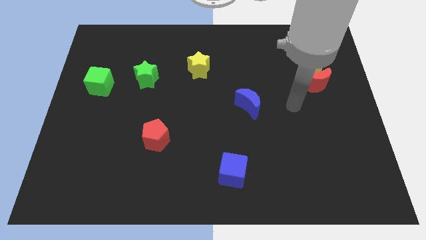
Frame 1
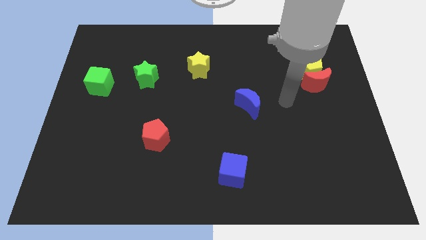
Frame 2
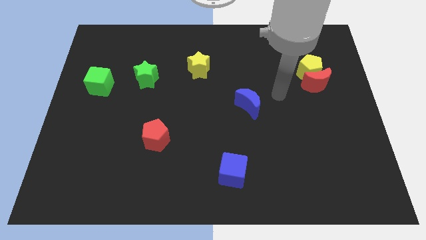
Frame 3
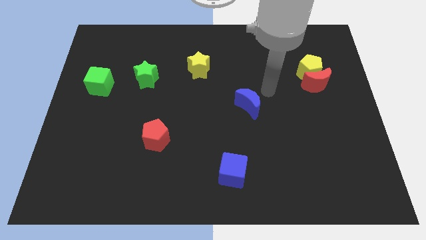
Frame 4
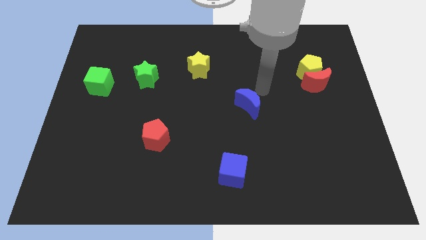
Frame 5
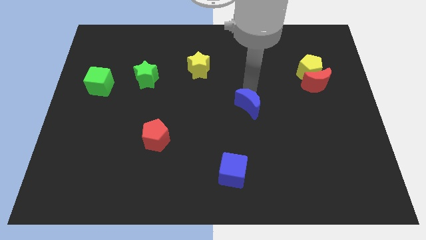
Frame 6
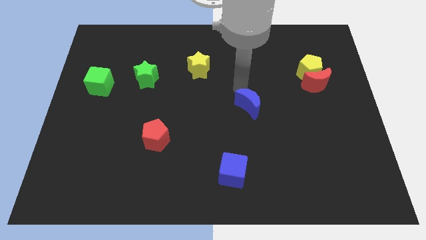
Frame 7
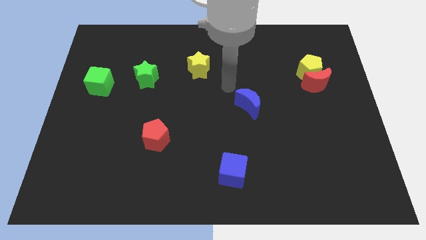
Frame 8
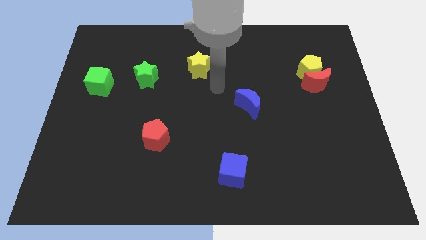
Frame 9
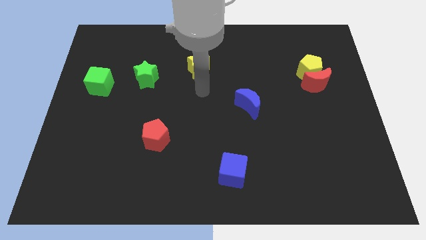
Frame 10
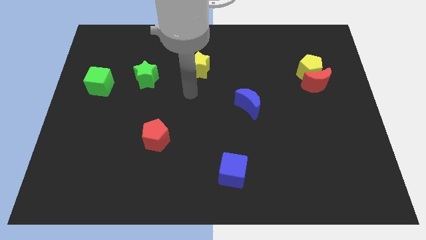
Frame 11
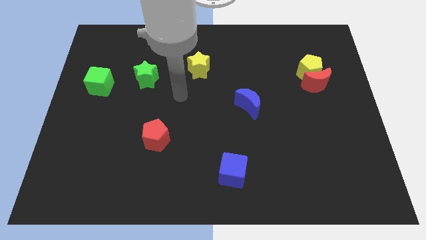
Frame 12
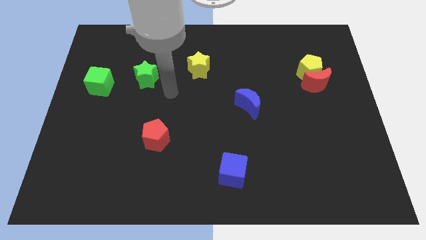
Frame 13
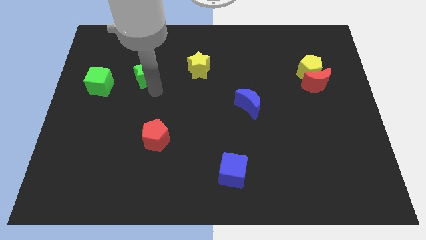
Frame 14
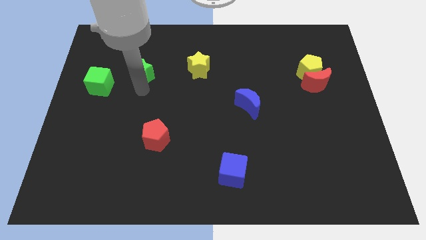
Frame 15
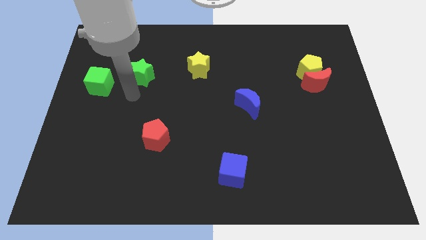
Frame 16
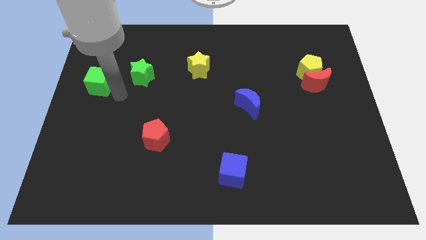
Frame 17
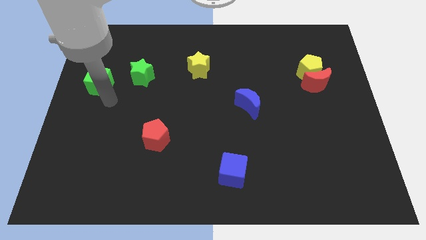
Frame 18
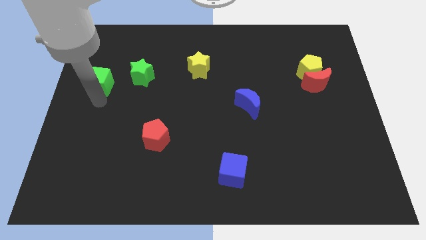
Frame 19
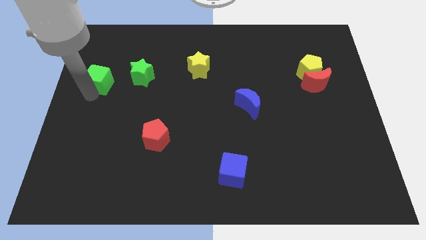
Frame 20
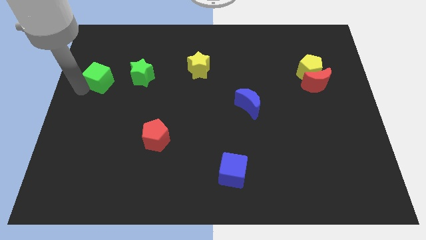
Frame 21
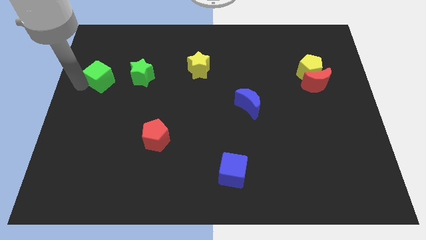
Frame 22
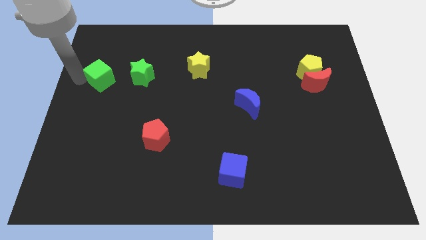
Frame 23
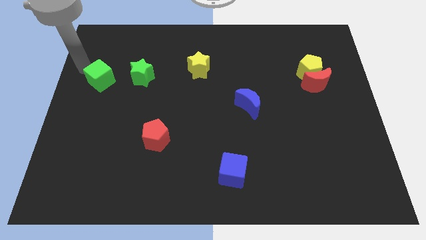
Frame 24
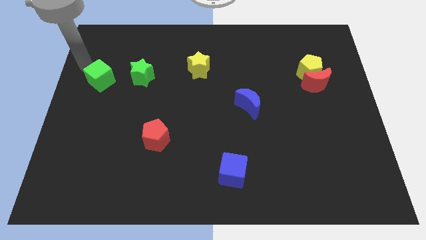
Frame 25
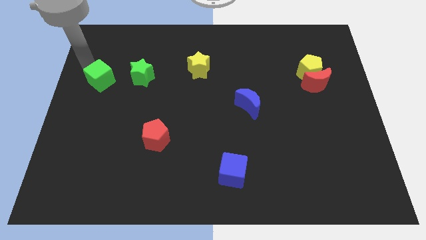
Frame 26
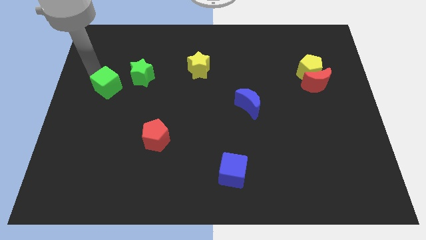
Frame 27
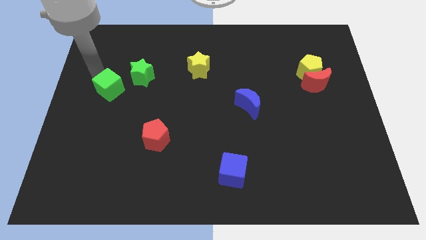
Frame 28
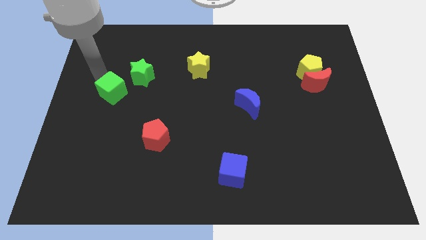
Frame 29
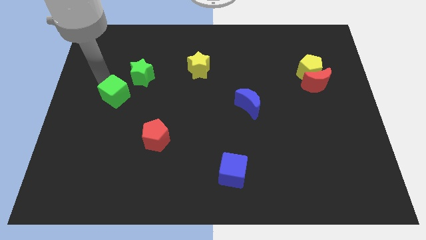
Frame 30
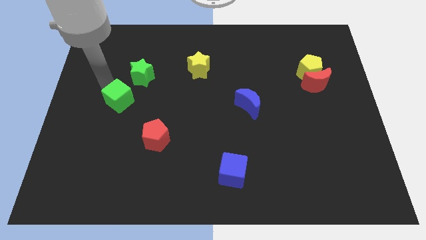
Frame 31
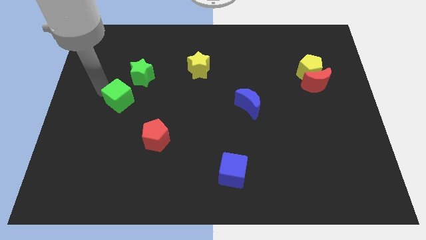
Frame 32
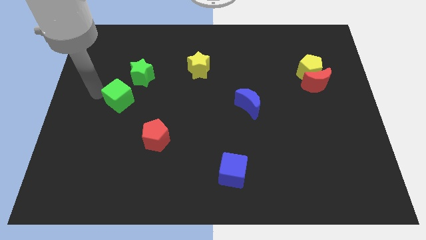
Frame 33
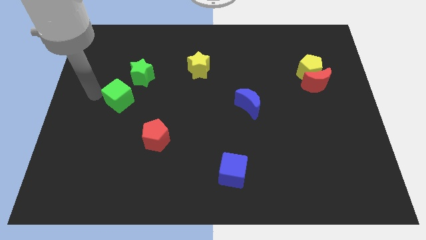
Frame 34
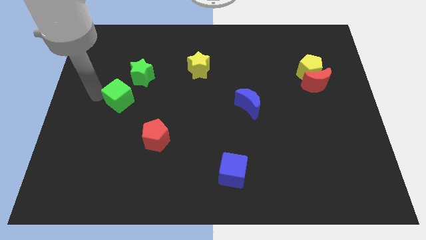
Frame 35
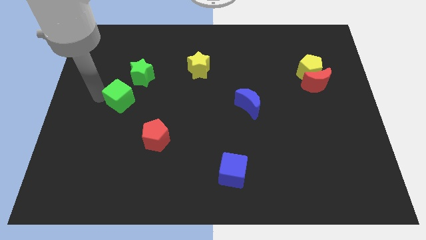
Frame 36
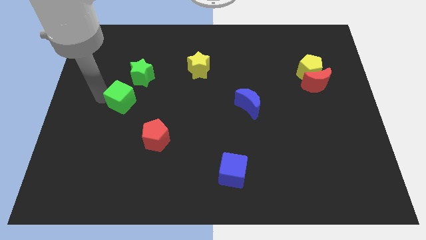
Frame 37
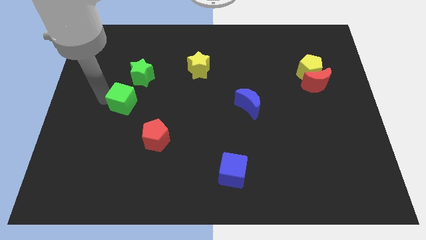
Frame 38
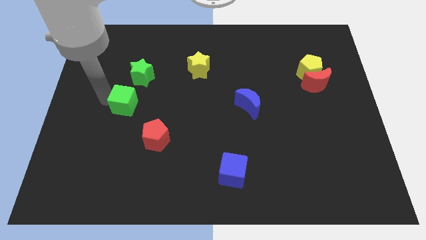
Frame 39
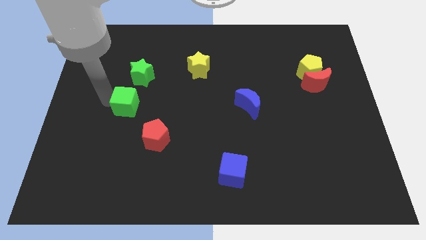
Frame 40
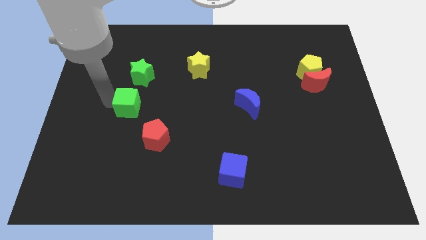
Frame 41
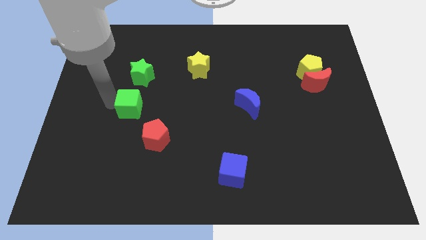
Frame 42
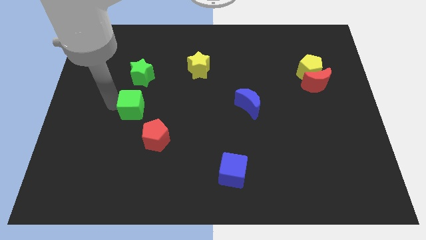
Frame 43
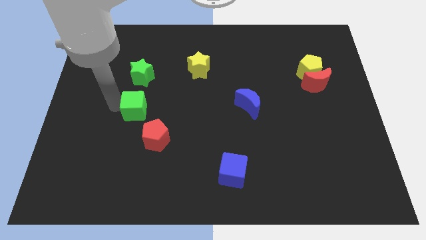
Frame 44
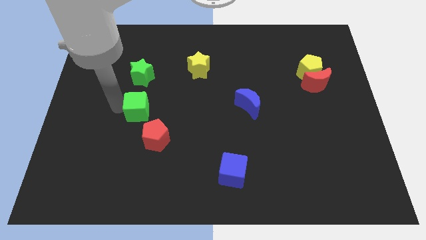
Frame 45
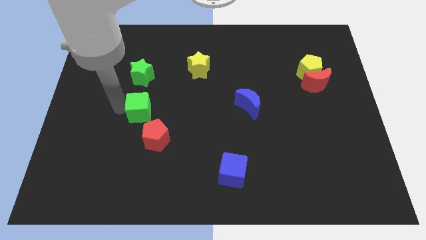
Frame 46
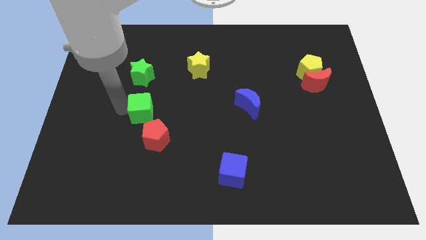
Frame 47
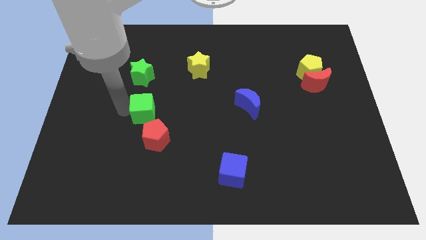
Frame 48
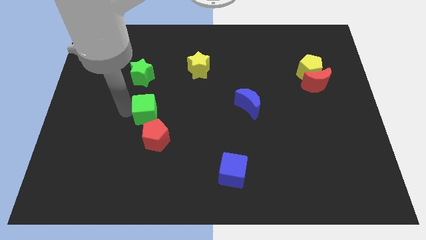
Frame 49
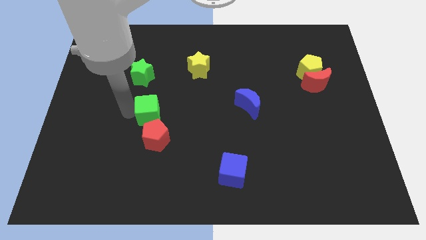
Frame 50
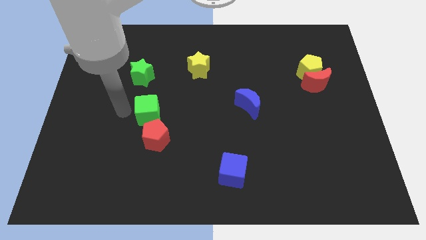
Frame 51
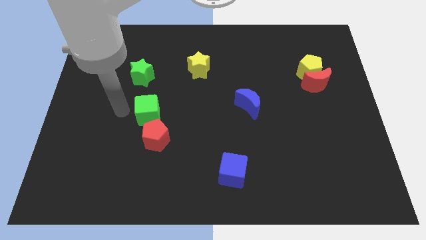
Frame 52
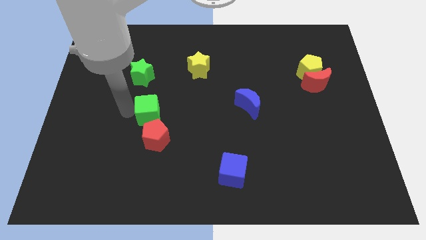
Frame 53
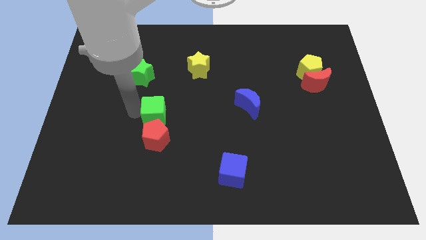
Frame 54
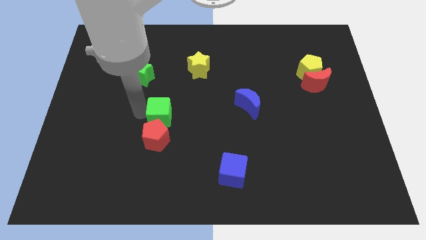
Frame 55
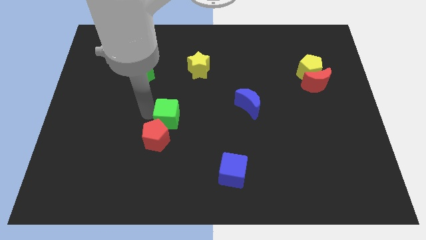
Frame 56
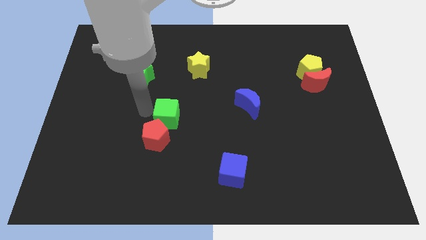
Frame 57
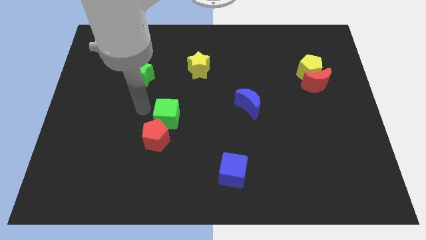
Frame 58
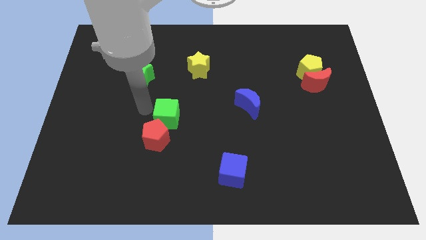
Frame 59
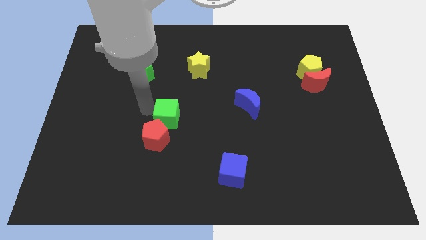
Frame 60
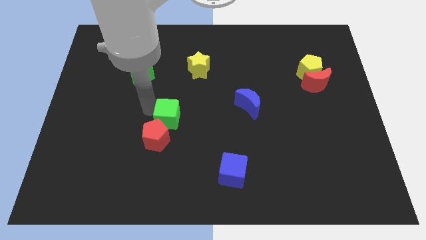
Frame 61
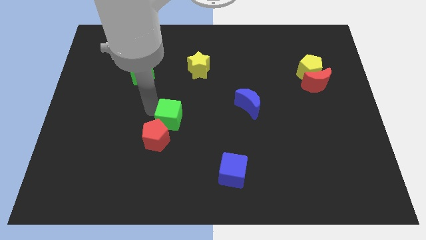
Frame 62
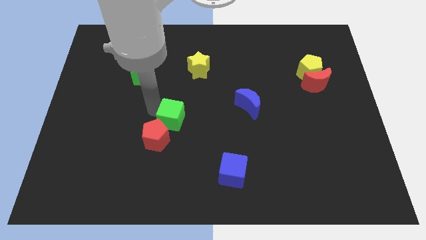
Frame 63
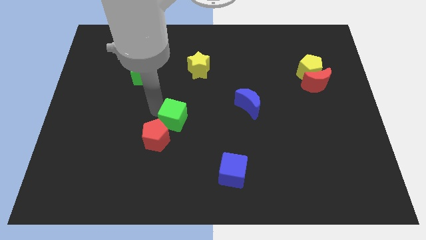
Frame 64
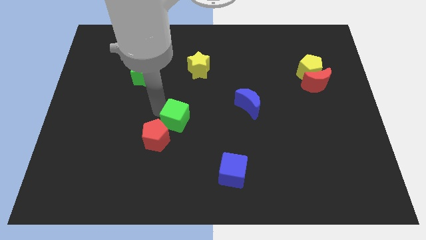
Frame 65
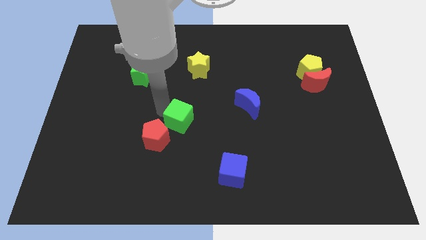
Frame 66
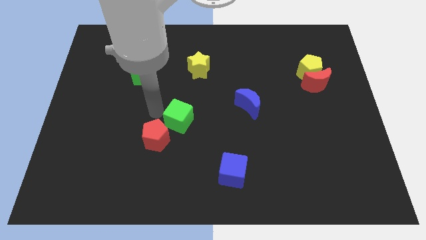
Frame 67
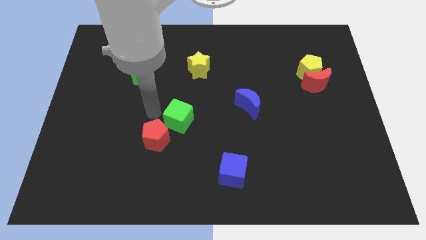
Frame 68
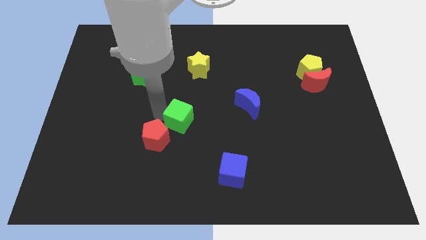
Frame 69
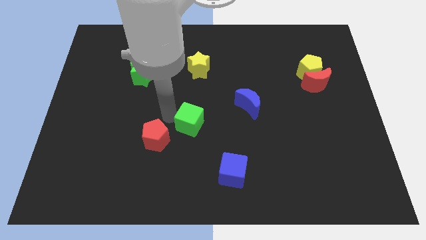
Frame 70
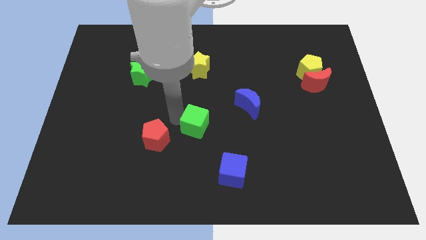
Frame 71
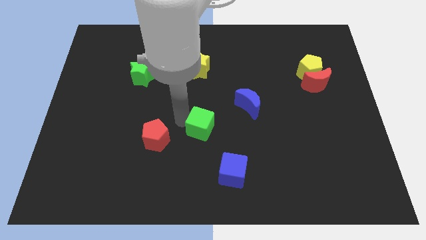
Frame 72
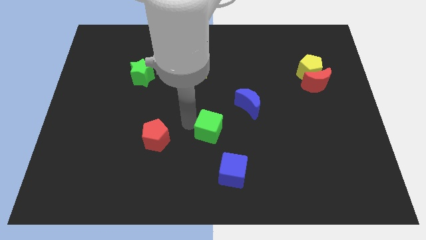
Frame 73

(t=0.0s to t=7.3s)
put the green cube above the blue cube
